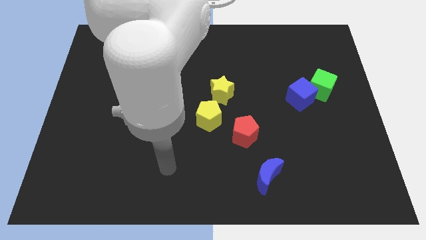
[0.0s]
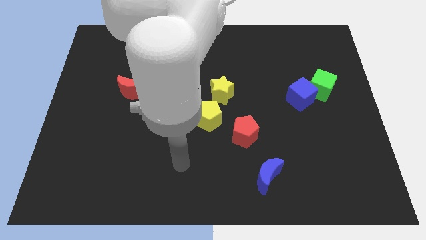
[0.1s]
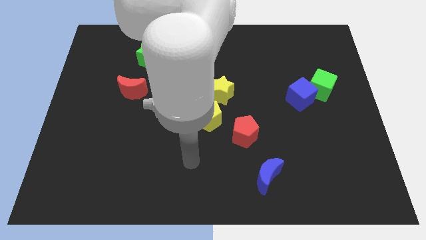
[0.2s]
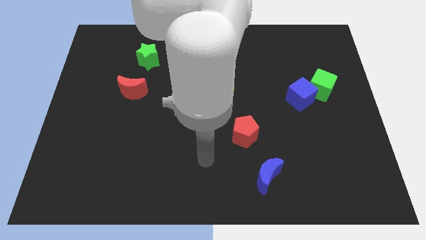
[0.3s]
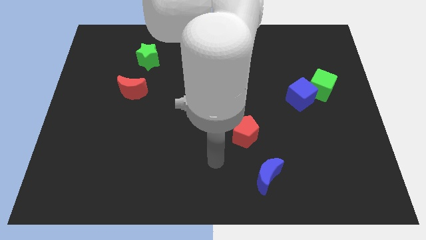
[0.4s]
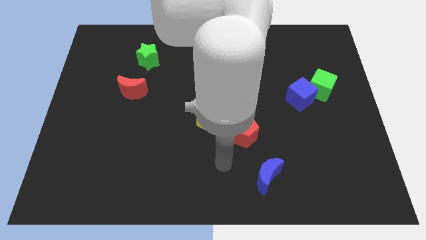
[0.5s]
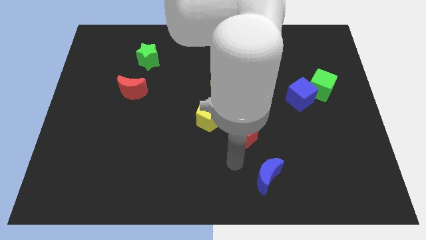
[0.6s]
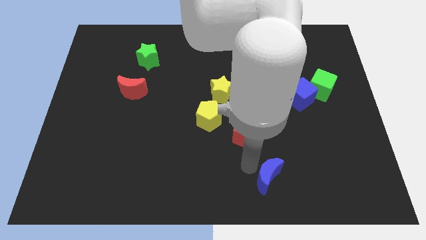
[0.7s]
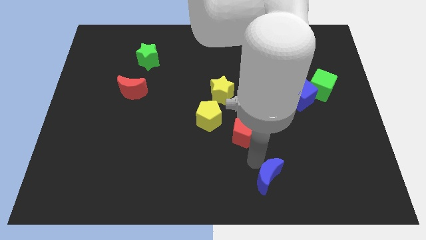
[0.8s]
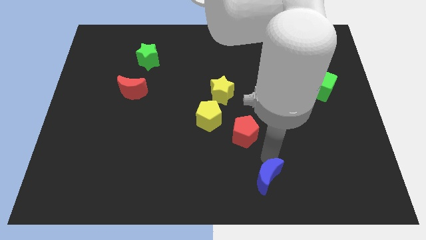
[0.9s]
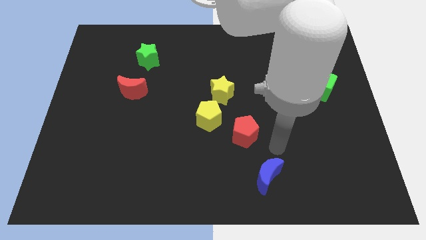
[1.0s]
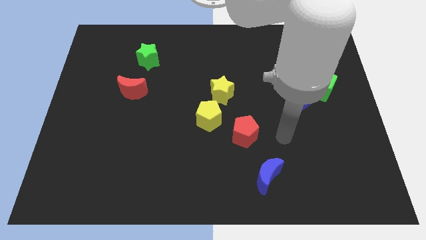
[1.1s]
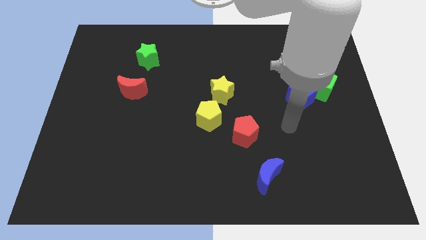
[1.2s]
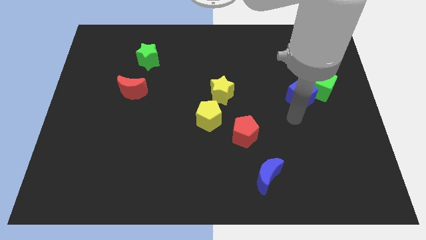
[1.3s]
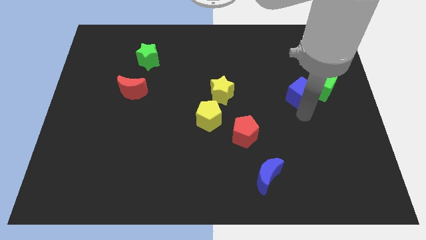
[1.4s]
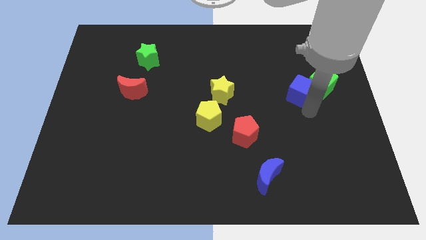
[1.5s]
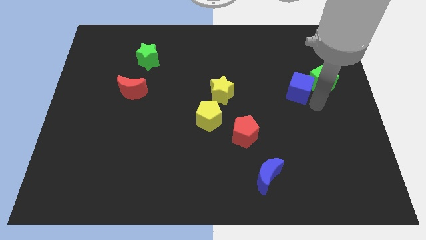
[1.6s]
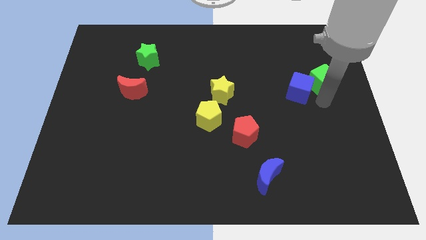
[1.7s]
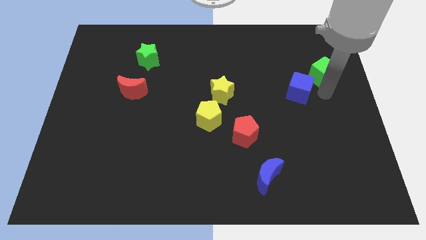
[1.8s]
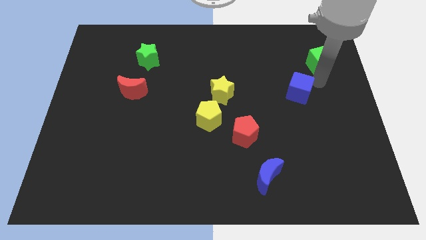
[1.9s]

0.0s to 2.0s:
move the blue cube away from the green cube

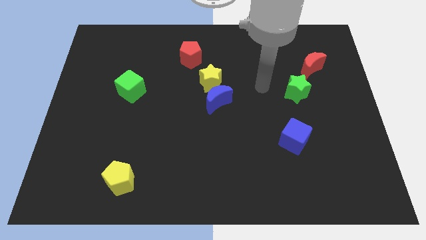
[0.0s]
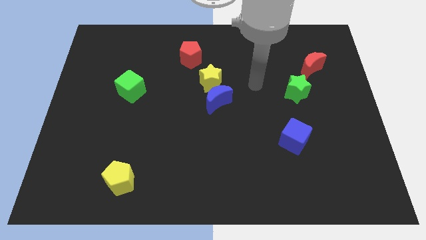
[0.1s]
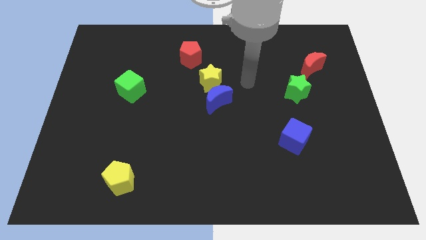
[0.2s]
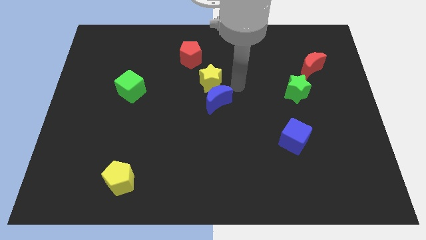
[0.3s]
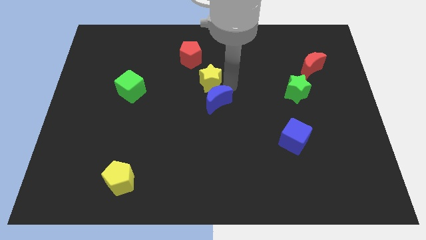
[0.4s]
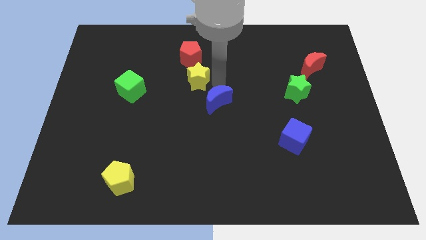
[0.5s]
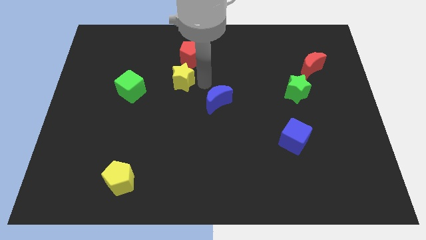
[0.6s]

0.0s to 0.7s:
move the blue moon away from the yellow star

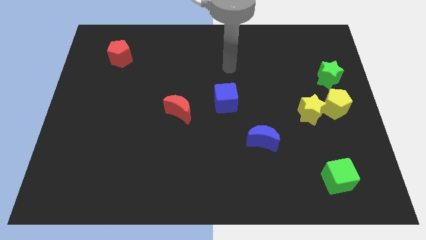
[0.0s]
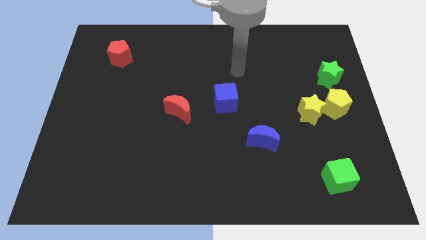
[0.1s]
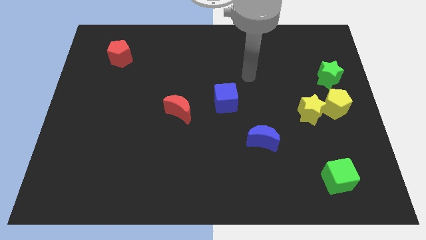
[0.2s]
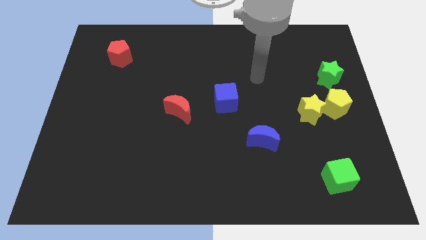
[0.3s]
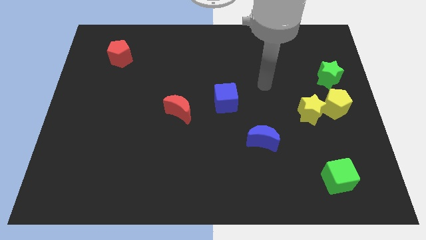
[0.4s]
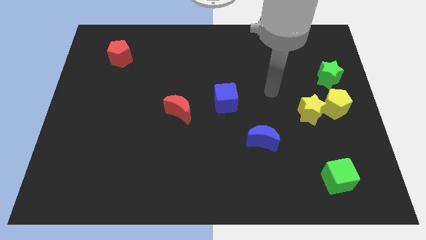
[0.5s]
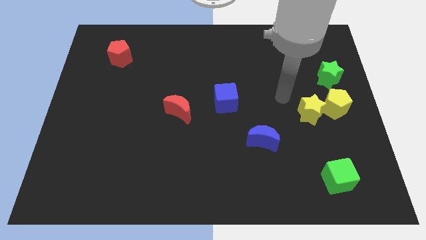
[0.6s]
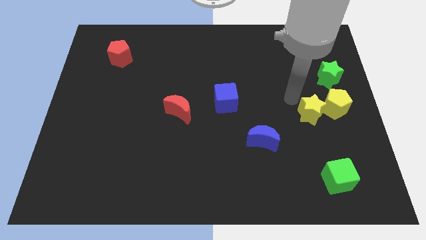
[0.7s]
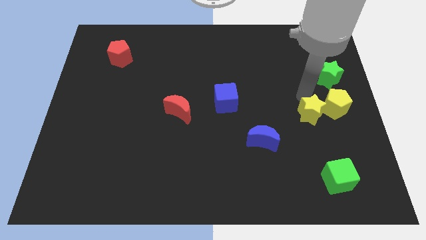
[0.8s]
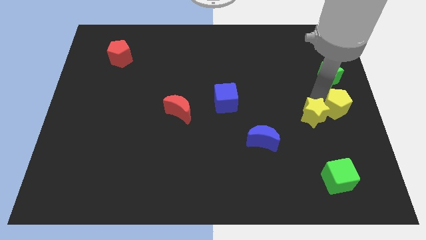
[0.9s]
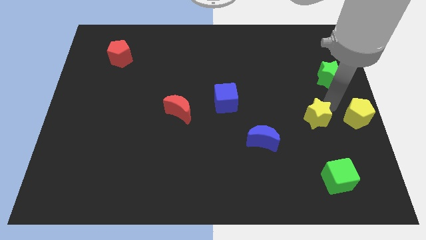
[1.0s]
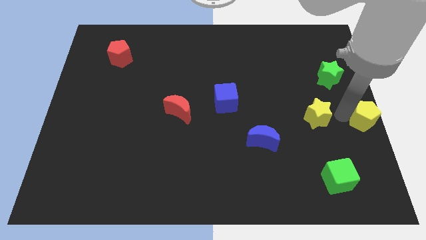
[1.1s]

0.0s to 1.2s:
move the yellow star away from the yellow pentagon

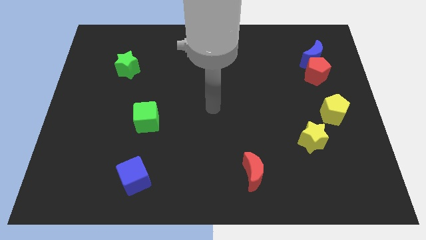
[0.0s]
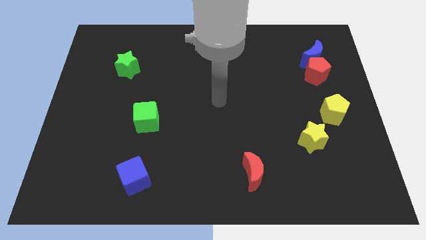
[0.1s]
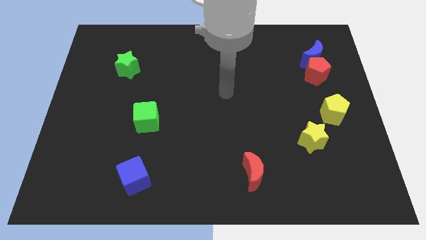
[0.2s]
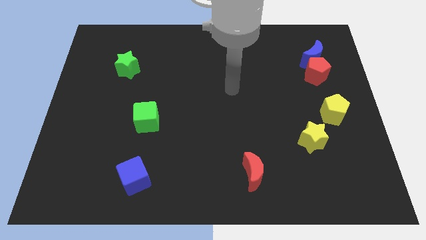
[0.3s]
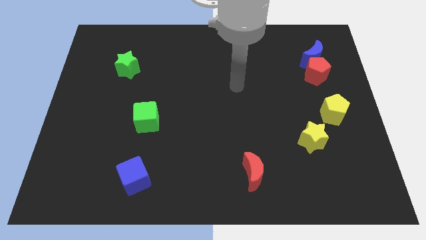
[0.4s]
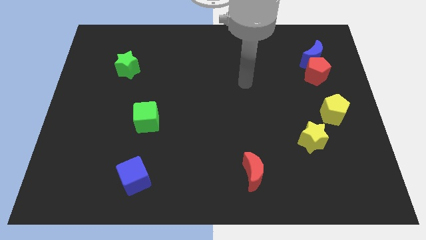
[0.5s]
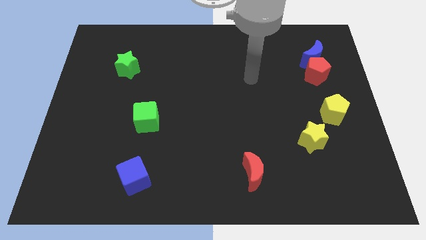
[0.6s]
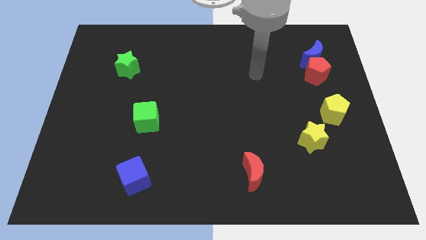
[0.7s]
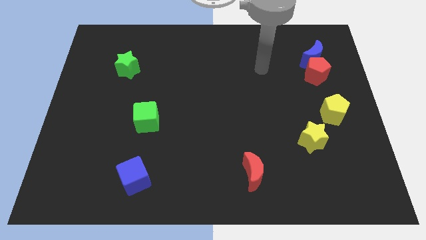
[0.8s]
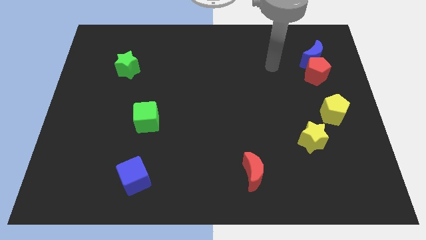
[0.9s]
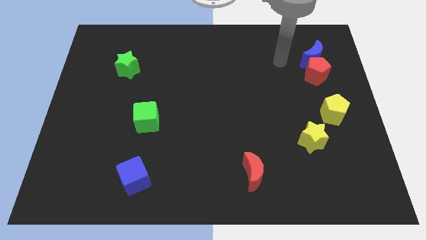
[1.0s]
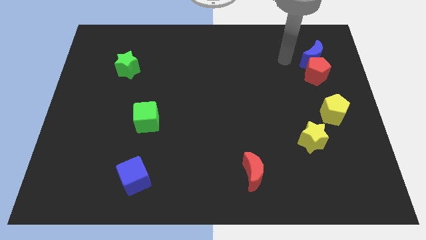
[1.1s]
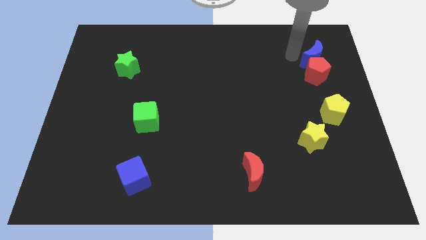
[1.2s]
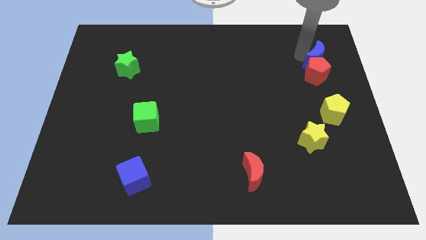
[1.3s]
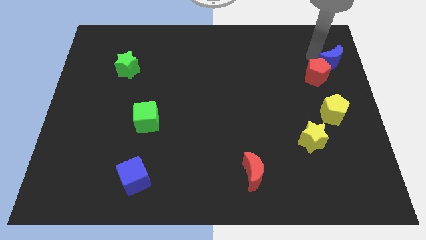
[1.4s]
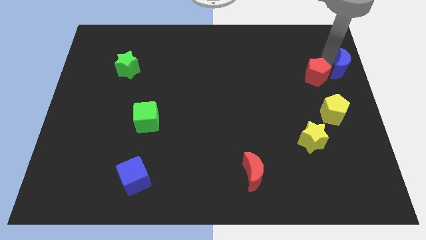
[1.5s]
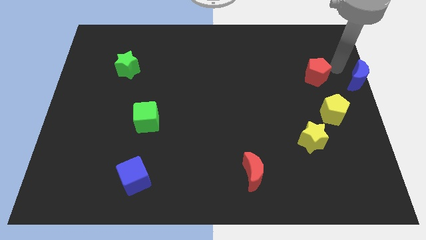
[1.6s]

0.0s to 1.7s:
separate the red pentagon from the blue moon

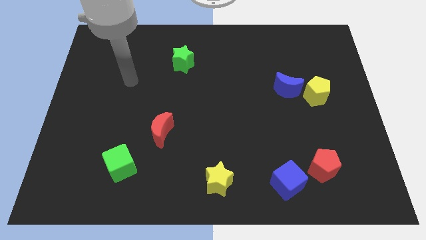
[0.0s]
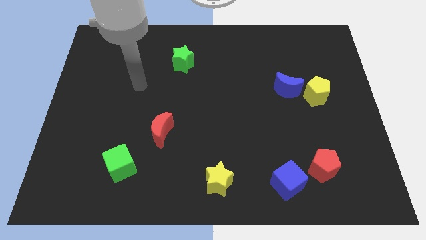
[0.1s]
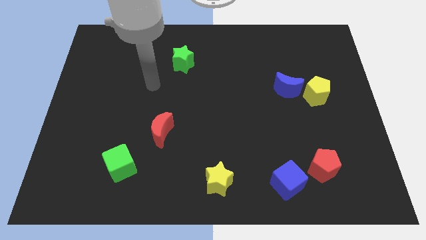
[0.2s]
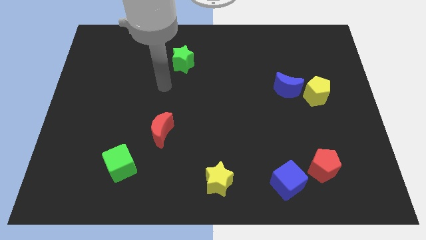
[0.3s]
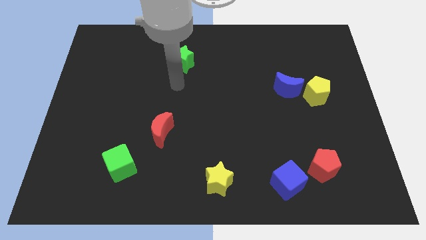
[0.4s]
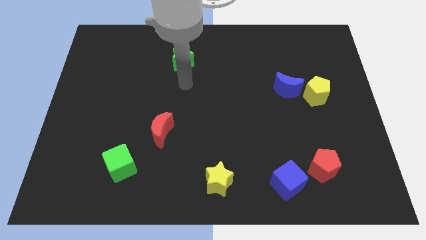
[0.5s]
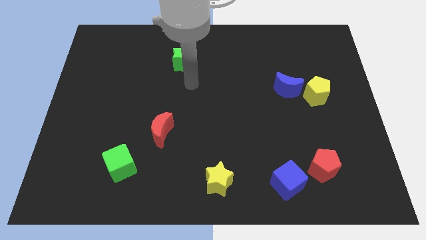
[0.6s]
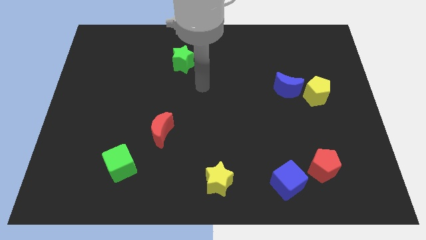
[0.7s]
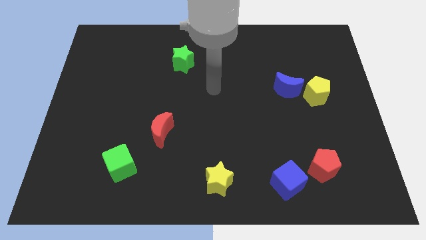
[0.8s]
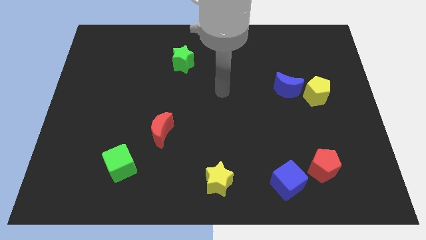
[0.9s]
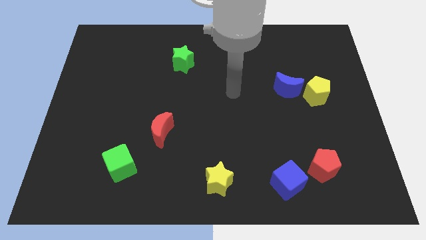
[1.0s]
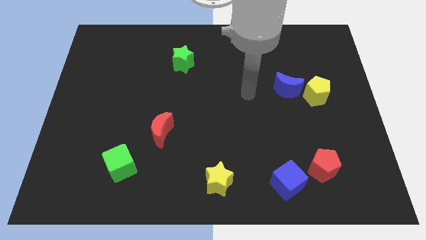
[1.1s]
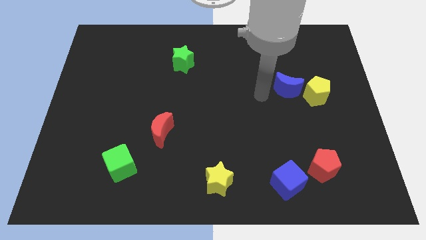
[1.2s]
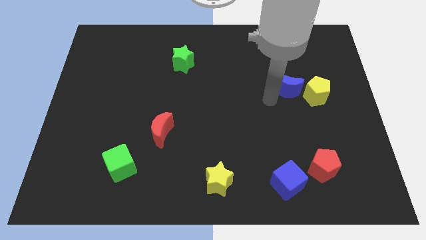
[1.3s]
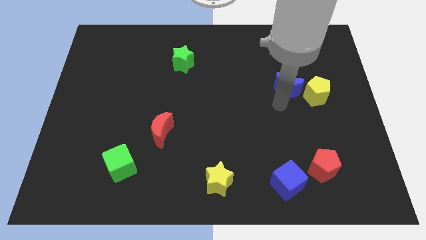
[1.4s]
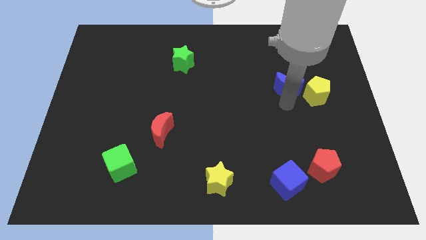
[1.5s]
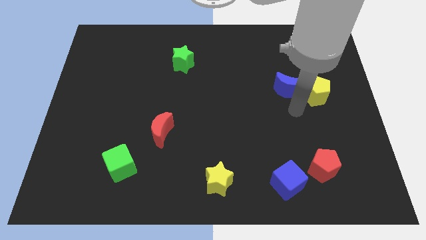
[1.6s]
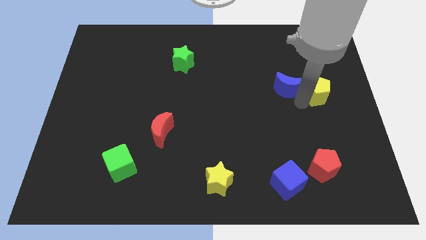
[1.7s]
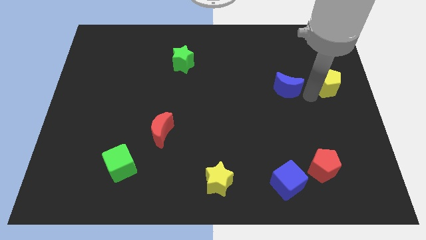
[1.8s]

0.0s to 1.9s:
pull the blue moon apart from the yellow pentagon

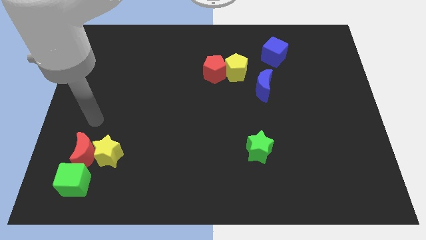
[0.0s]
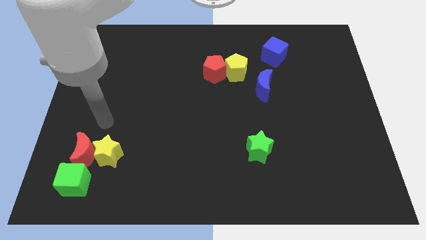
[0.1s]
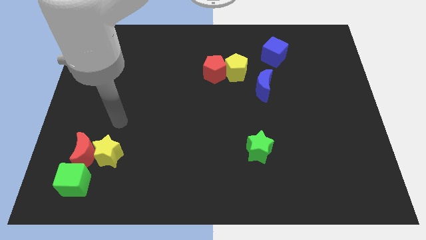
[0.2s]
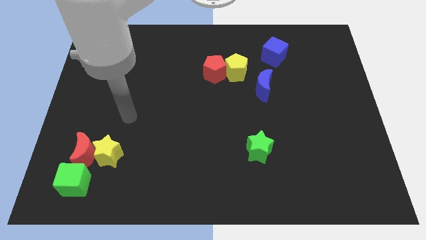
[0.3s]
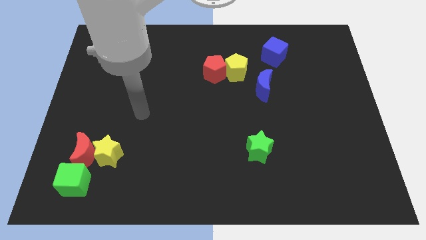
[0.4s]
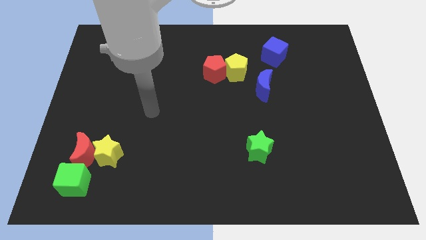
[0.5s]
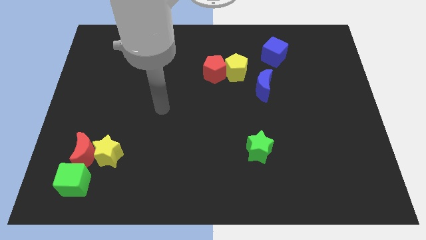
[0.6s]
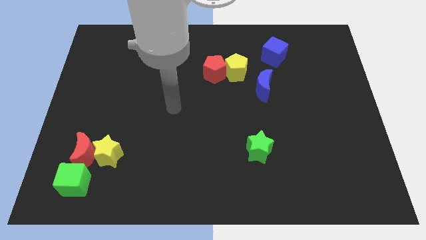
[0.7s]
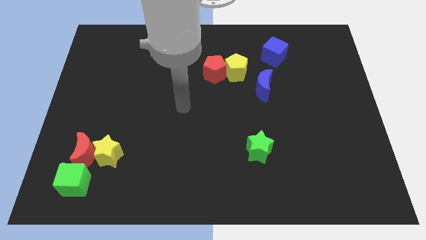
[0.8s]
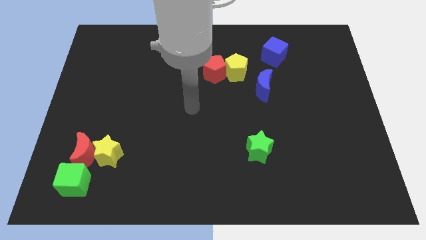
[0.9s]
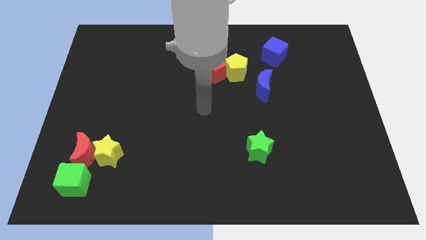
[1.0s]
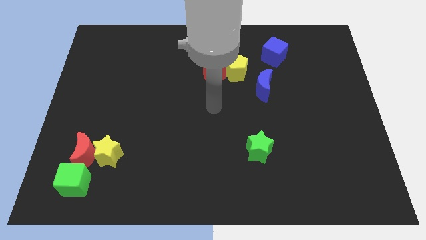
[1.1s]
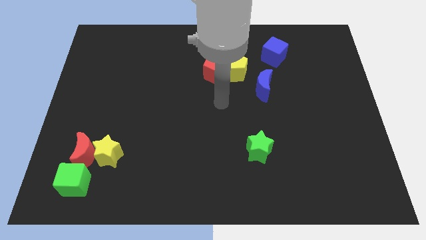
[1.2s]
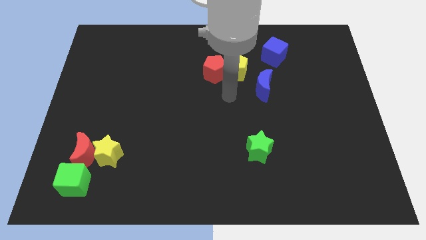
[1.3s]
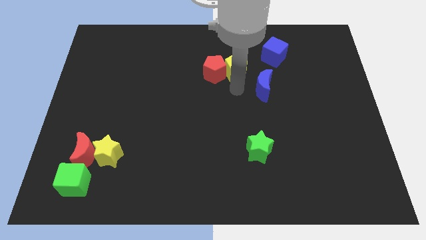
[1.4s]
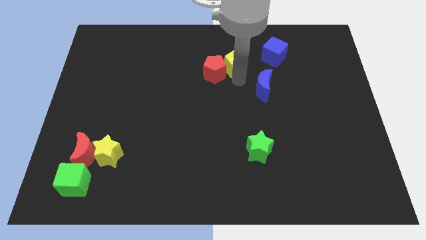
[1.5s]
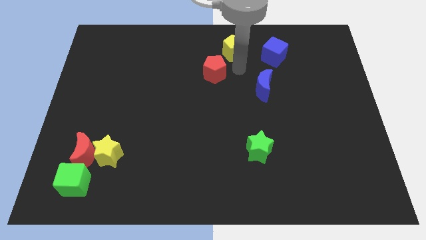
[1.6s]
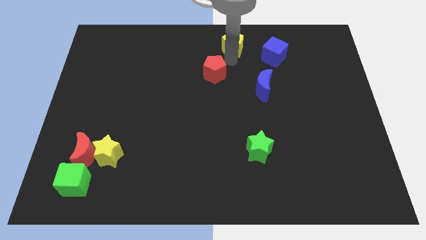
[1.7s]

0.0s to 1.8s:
move the red pentagon away from the yellow pentagon
